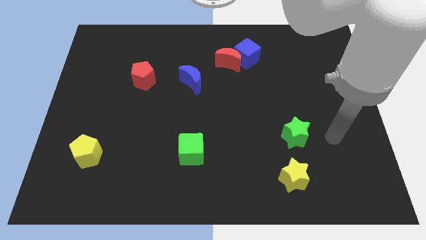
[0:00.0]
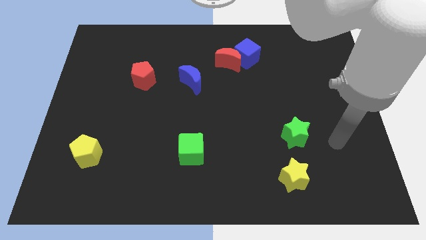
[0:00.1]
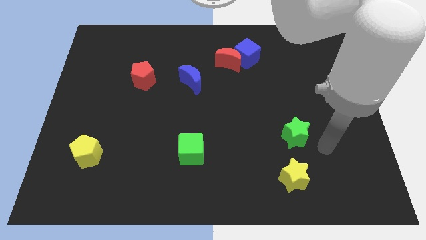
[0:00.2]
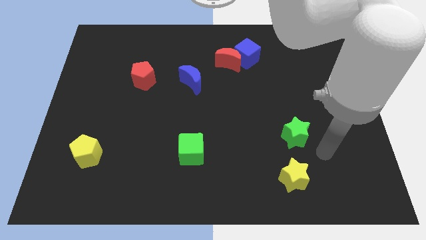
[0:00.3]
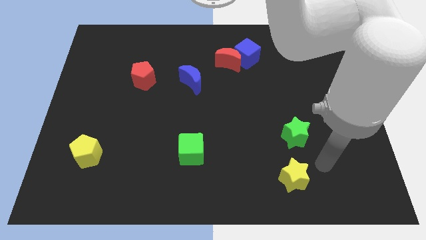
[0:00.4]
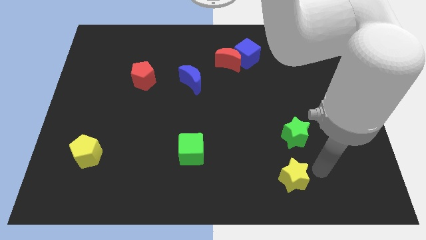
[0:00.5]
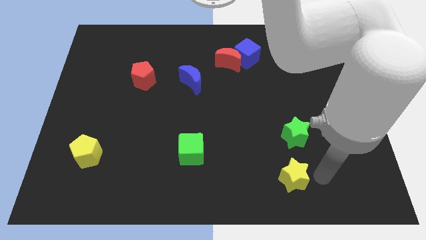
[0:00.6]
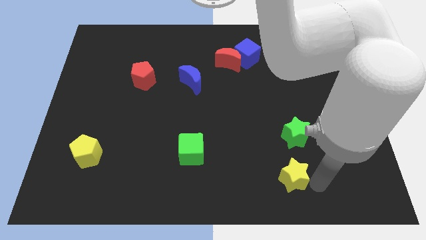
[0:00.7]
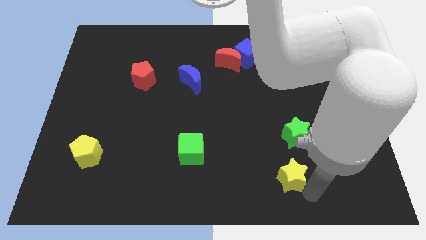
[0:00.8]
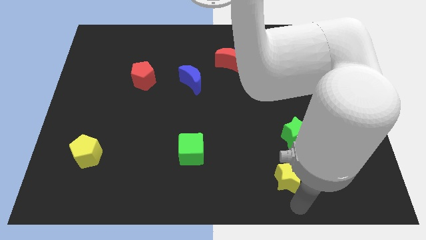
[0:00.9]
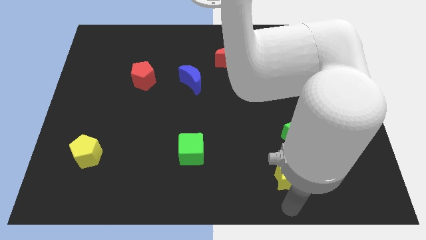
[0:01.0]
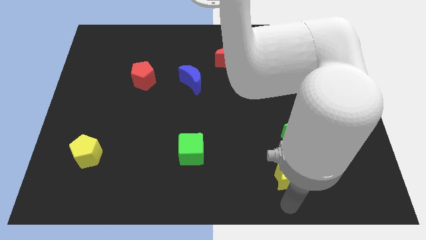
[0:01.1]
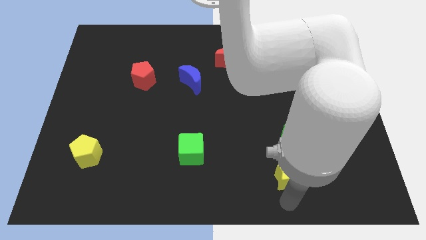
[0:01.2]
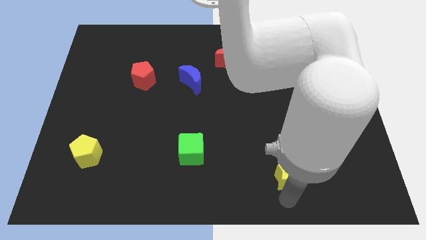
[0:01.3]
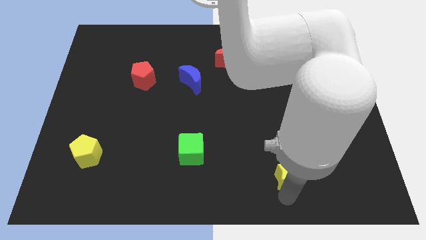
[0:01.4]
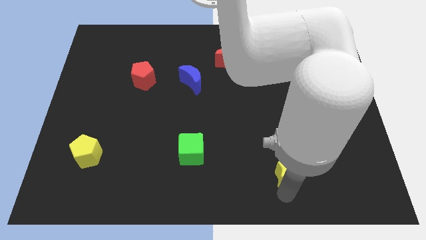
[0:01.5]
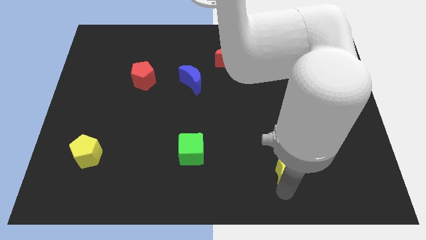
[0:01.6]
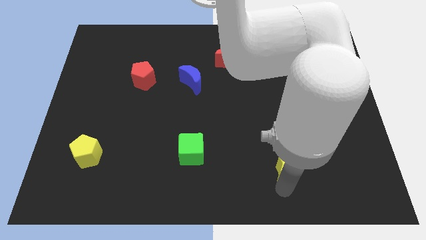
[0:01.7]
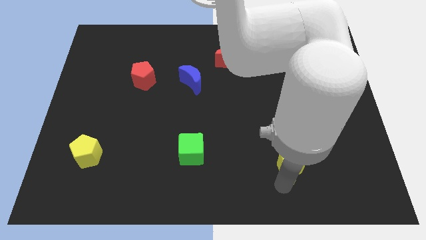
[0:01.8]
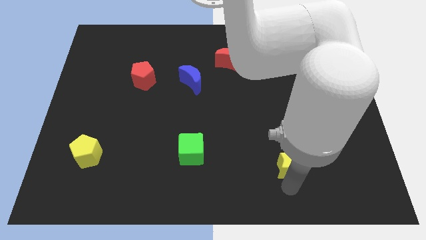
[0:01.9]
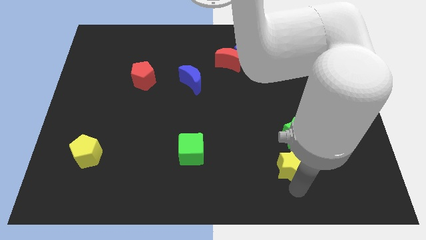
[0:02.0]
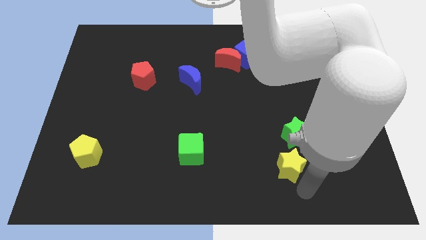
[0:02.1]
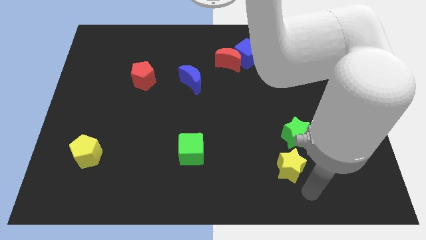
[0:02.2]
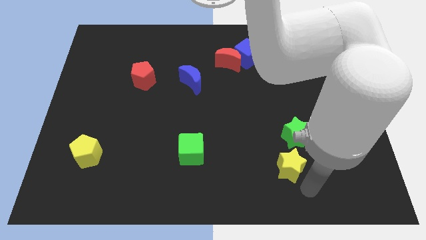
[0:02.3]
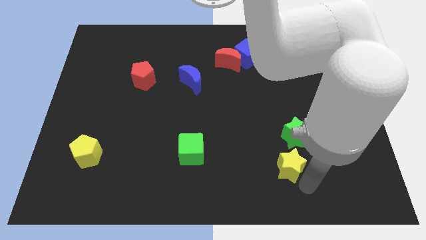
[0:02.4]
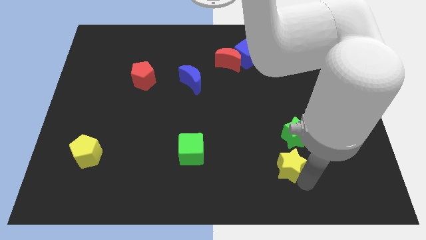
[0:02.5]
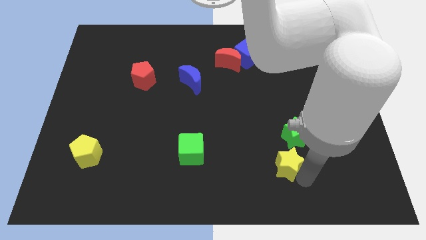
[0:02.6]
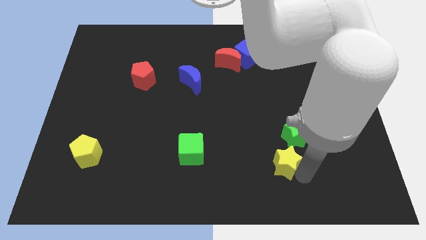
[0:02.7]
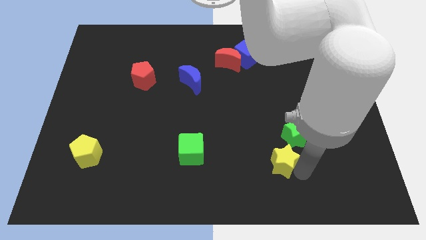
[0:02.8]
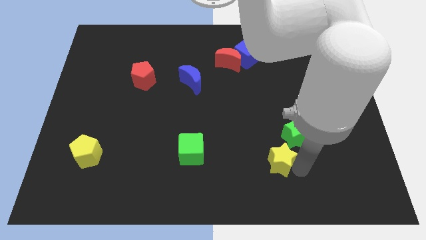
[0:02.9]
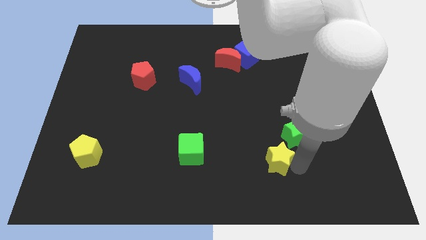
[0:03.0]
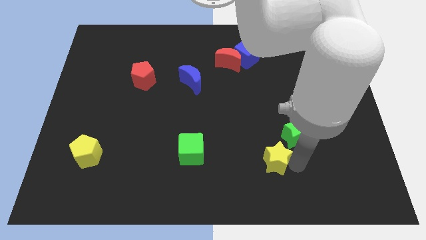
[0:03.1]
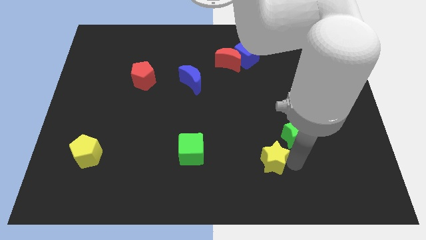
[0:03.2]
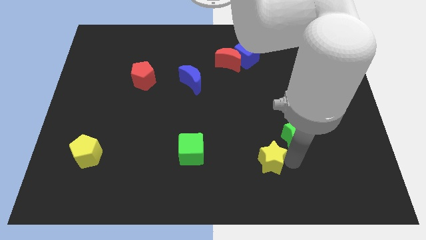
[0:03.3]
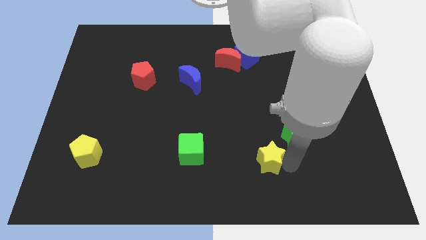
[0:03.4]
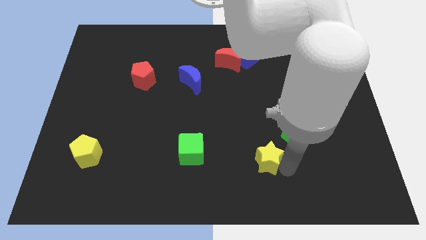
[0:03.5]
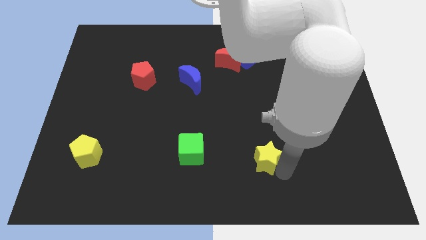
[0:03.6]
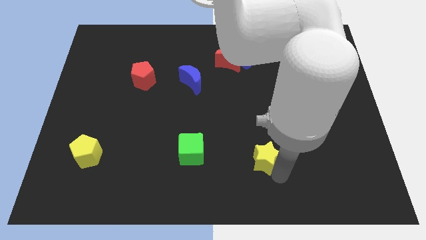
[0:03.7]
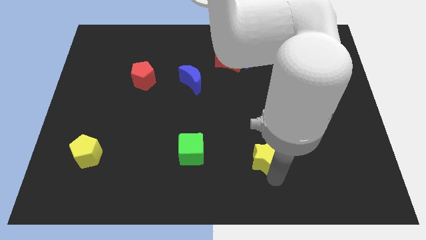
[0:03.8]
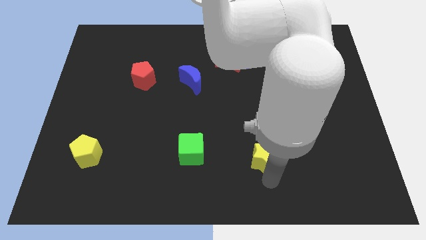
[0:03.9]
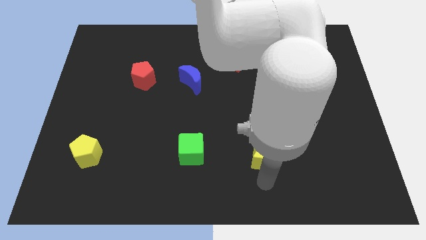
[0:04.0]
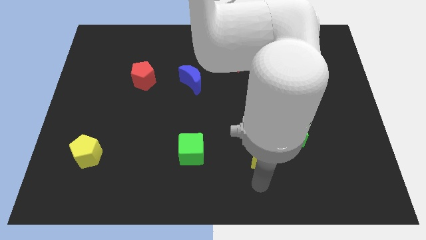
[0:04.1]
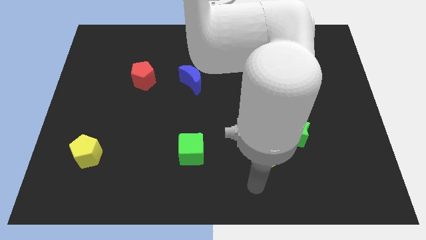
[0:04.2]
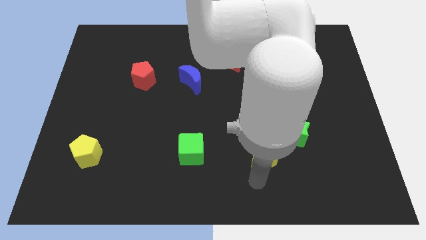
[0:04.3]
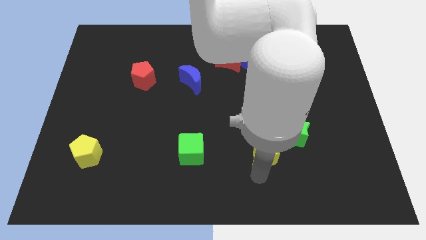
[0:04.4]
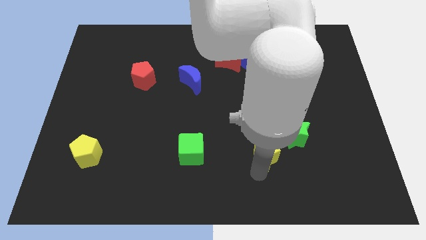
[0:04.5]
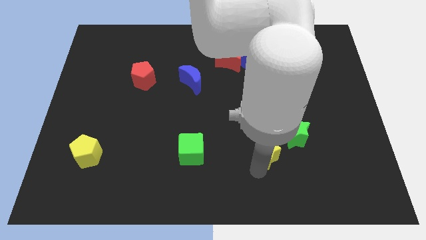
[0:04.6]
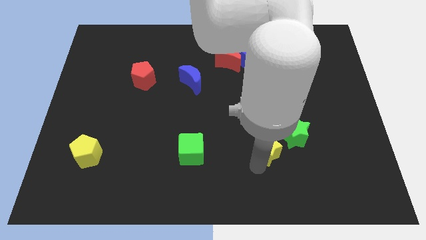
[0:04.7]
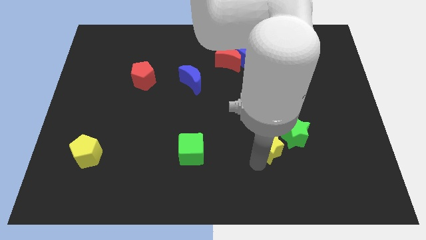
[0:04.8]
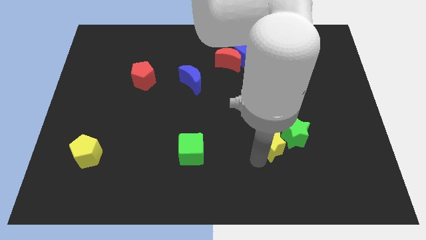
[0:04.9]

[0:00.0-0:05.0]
move the yellow star a bit up

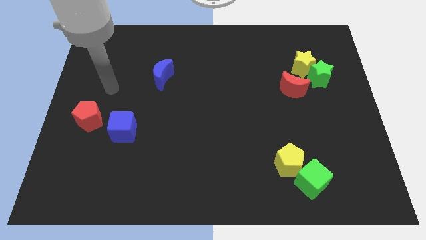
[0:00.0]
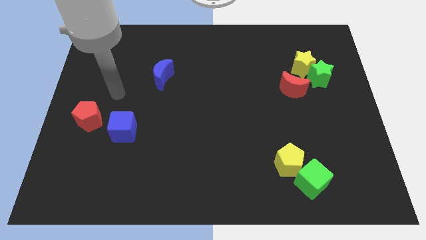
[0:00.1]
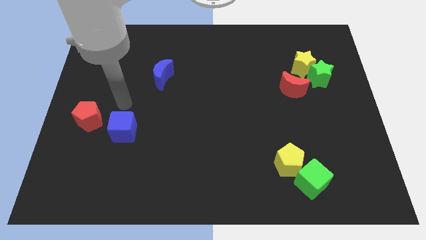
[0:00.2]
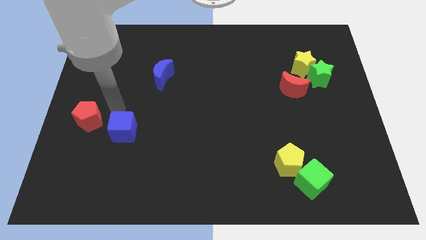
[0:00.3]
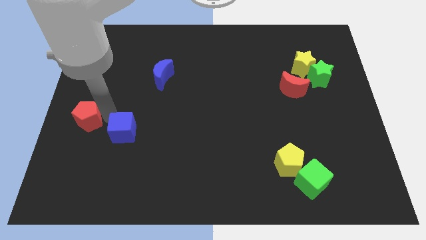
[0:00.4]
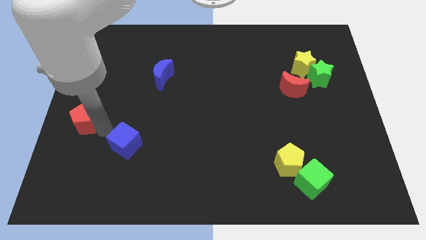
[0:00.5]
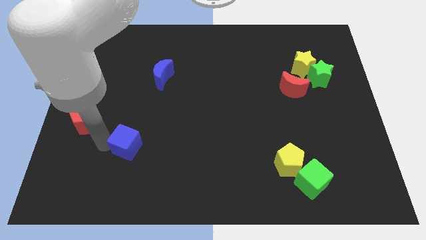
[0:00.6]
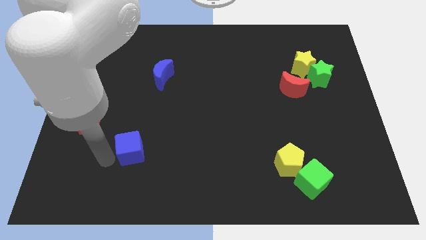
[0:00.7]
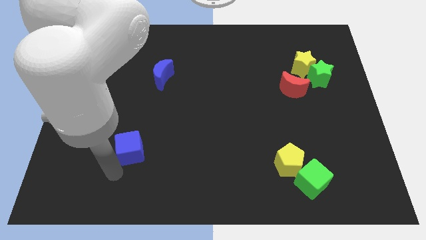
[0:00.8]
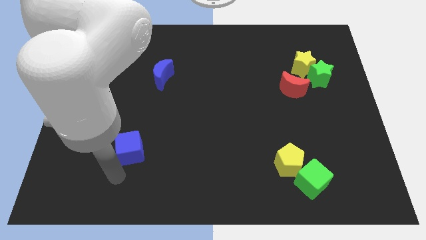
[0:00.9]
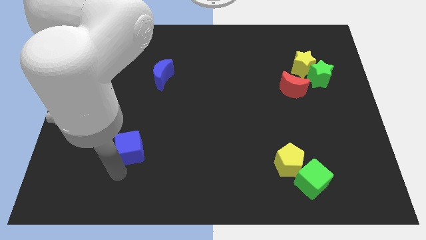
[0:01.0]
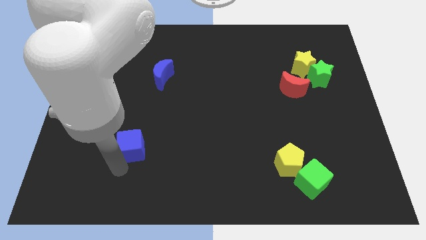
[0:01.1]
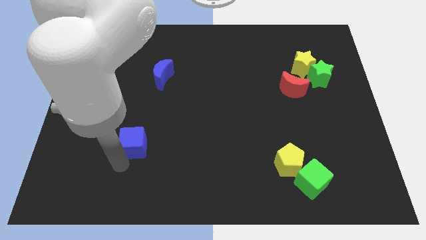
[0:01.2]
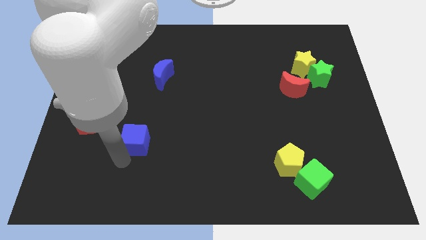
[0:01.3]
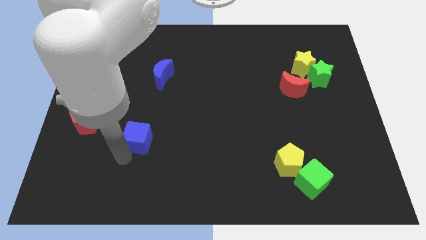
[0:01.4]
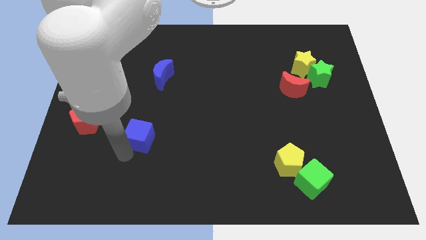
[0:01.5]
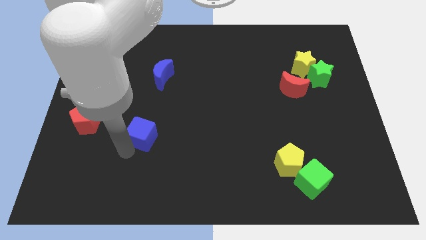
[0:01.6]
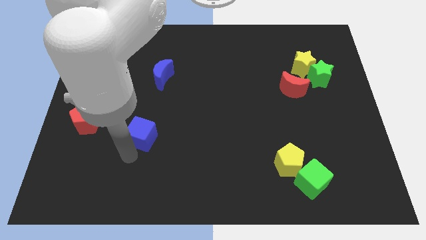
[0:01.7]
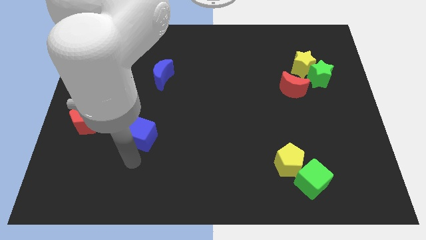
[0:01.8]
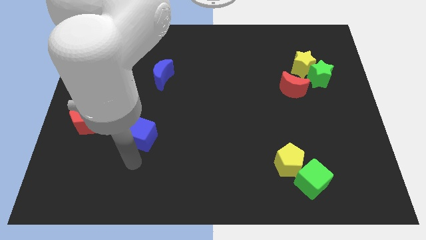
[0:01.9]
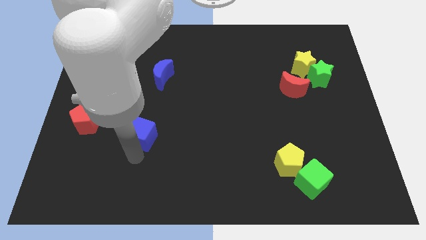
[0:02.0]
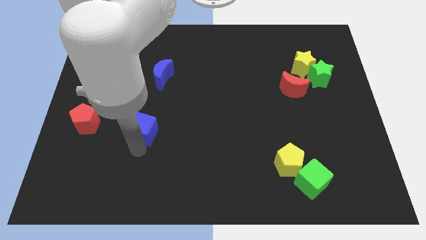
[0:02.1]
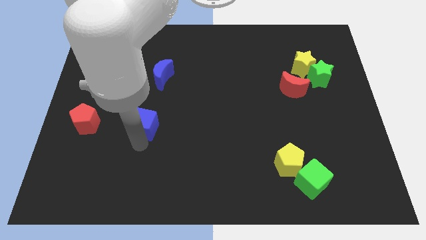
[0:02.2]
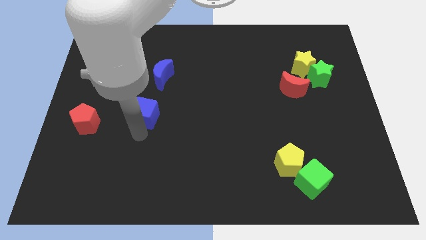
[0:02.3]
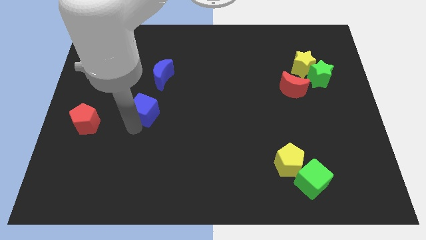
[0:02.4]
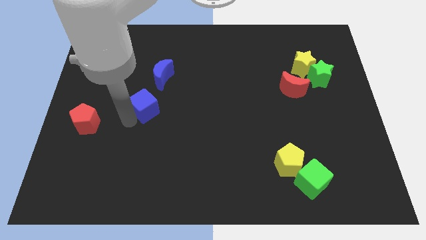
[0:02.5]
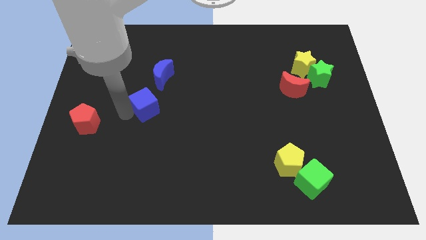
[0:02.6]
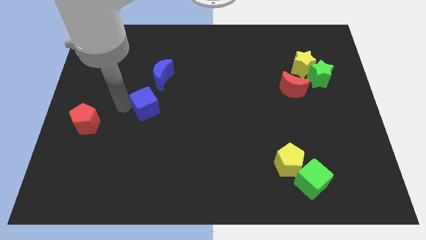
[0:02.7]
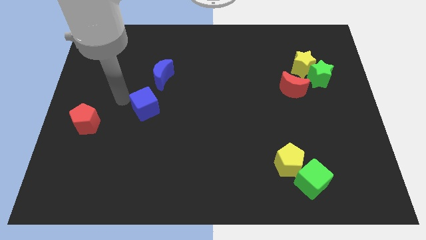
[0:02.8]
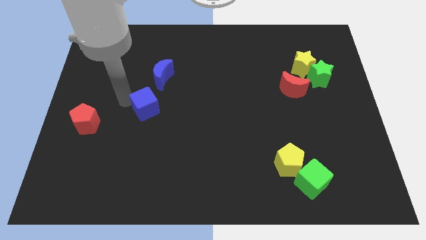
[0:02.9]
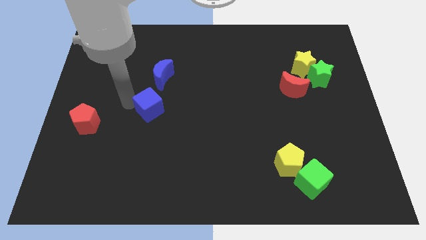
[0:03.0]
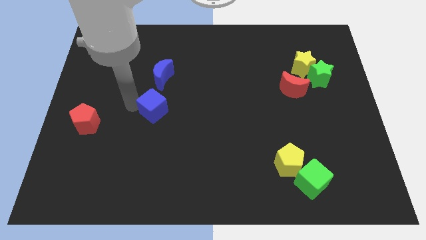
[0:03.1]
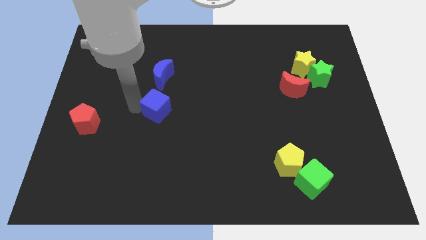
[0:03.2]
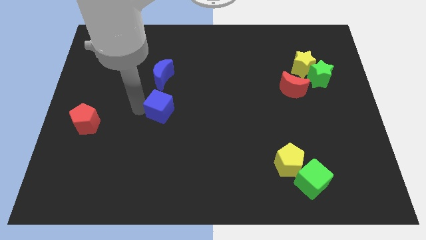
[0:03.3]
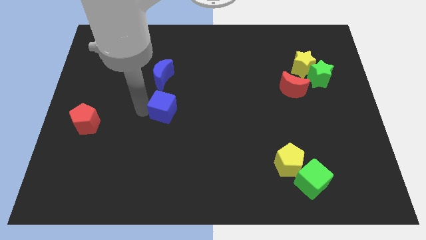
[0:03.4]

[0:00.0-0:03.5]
push the blue cube slightly right
